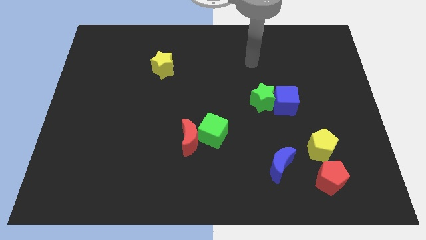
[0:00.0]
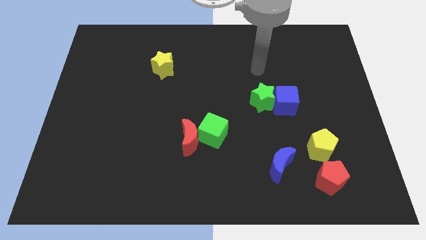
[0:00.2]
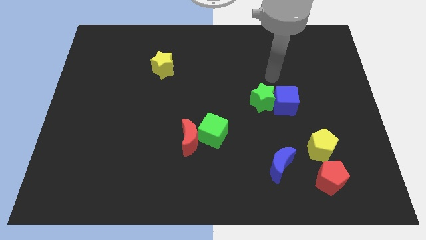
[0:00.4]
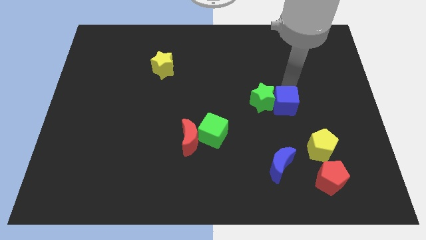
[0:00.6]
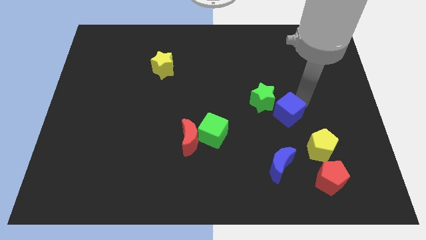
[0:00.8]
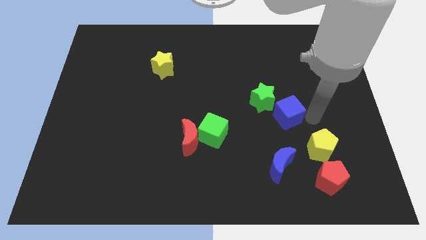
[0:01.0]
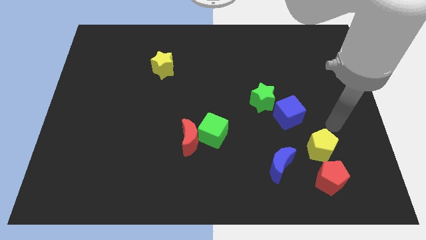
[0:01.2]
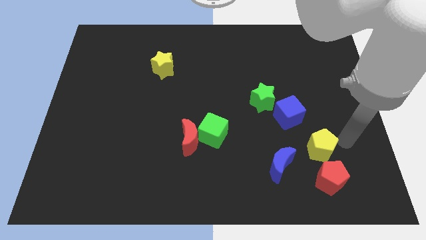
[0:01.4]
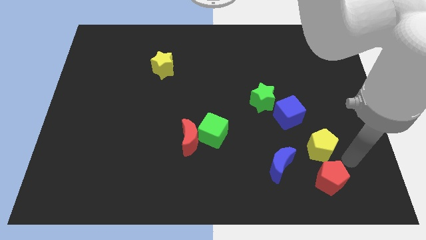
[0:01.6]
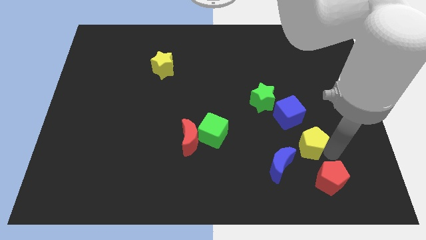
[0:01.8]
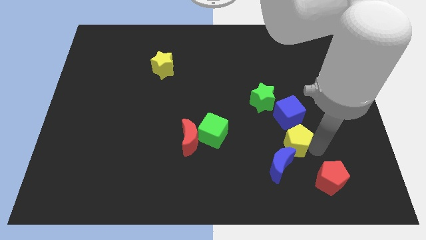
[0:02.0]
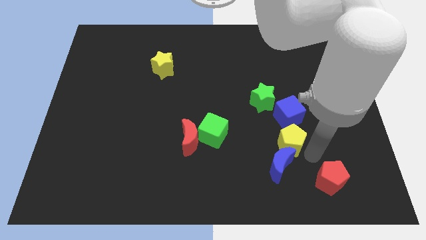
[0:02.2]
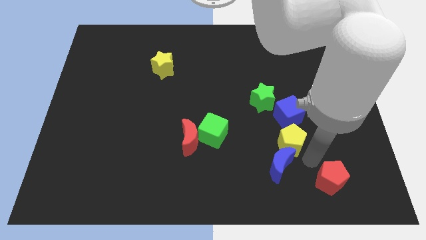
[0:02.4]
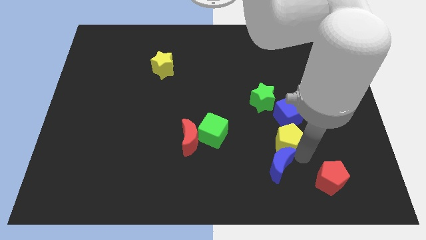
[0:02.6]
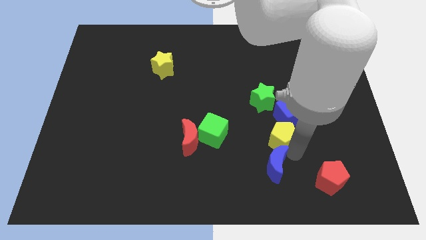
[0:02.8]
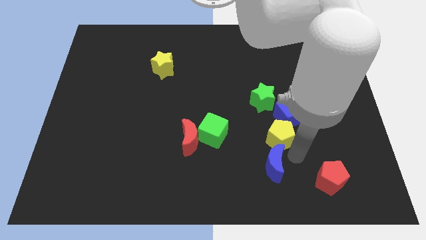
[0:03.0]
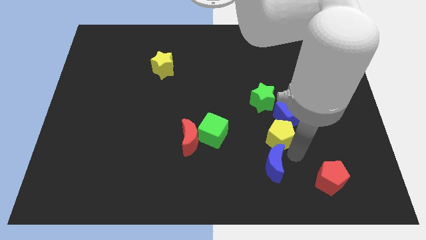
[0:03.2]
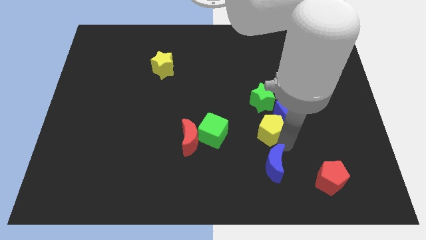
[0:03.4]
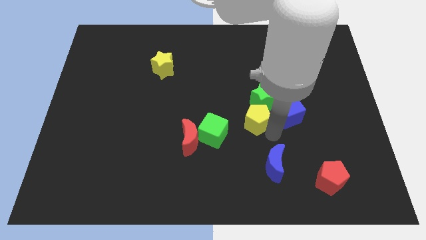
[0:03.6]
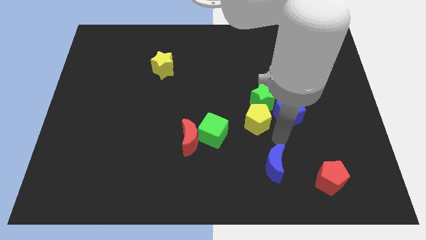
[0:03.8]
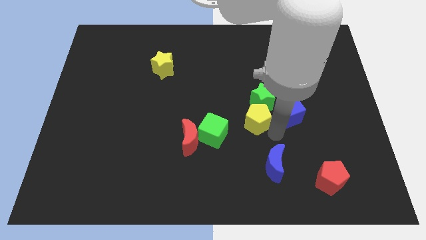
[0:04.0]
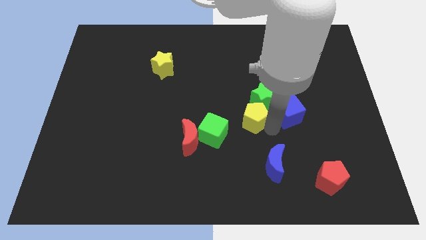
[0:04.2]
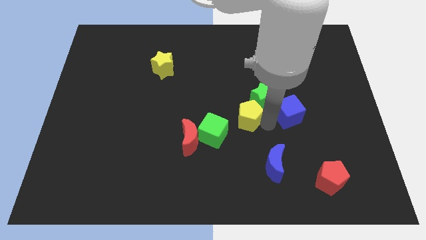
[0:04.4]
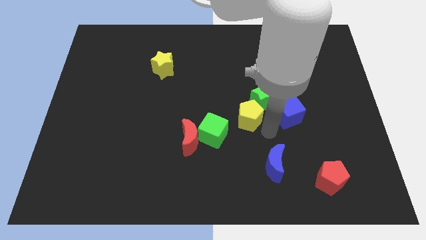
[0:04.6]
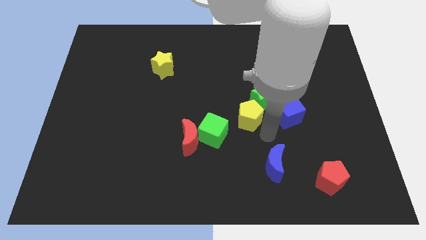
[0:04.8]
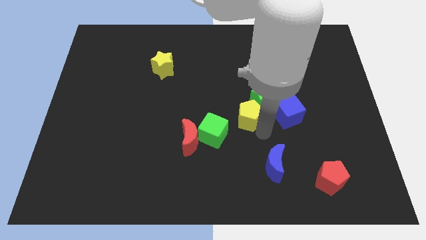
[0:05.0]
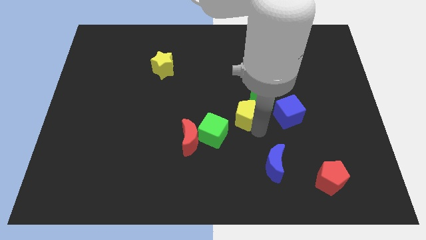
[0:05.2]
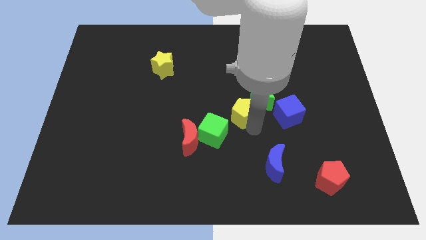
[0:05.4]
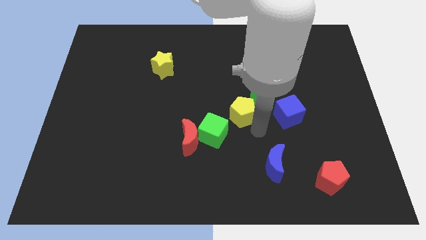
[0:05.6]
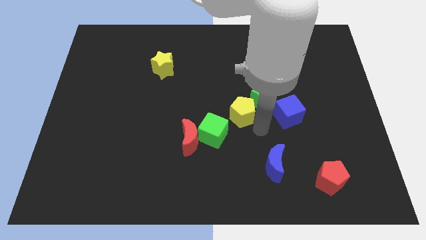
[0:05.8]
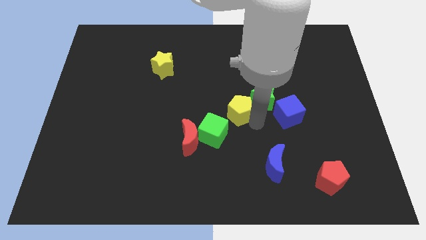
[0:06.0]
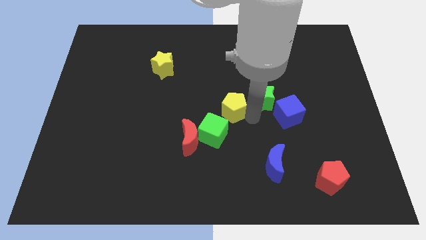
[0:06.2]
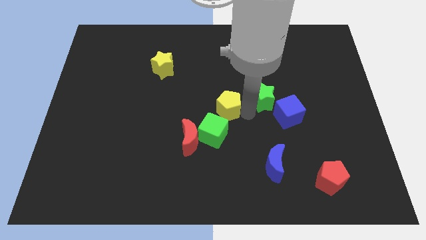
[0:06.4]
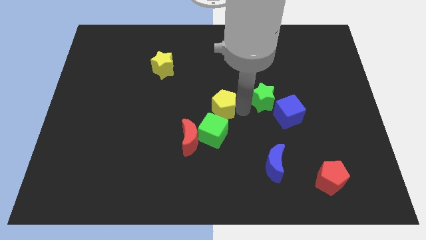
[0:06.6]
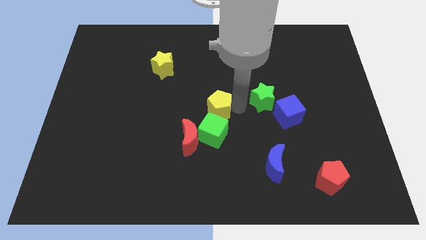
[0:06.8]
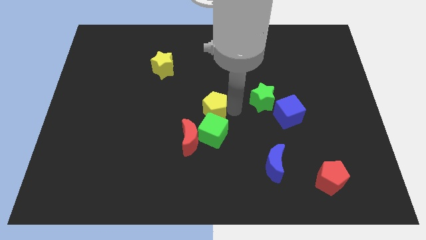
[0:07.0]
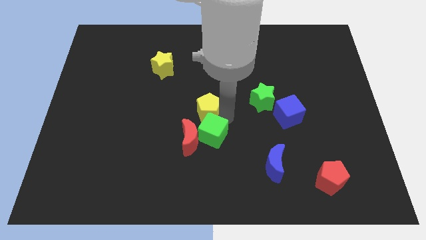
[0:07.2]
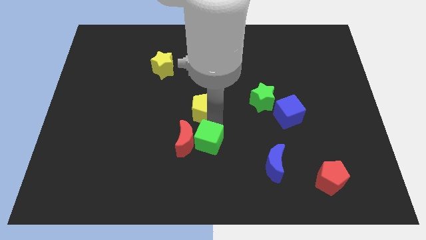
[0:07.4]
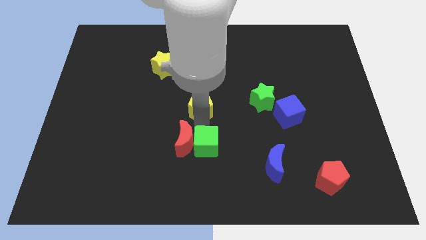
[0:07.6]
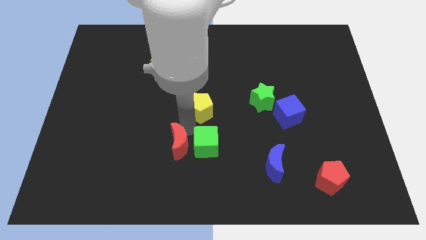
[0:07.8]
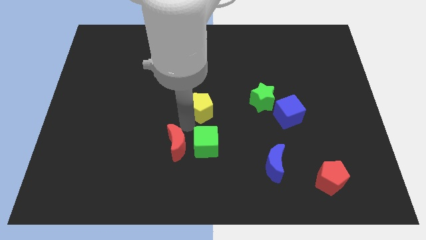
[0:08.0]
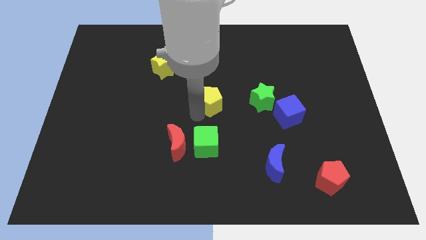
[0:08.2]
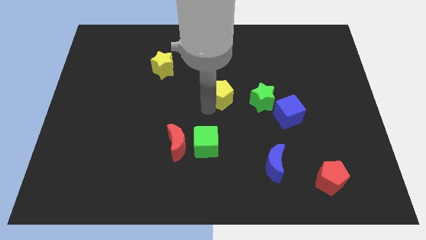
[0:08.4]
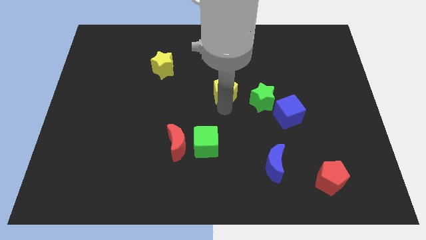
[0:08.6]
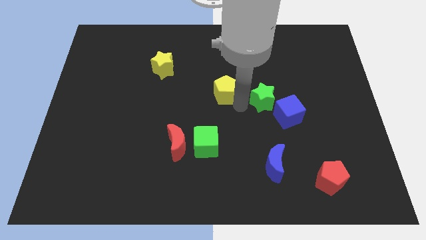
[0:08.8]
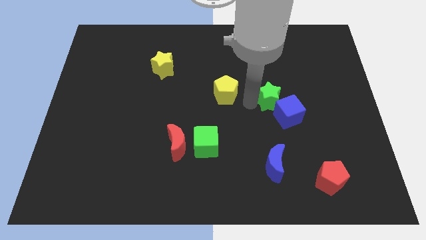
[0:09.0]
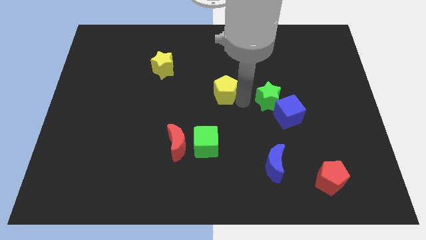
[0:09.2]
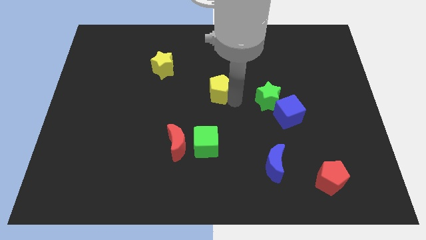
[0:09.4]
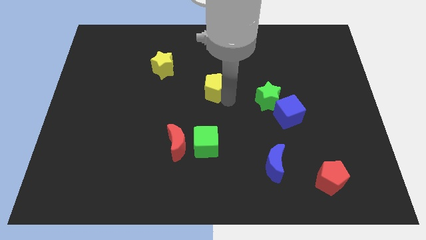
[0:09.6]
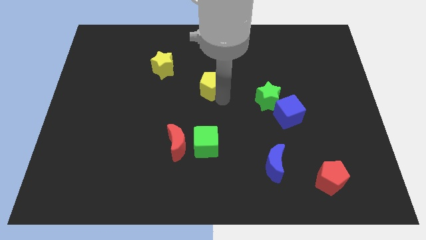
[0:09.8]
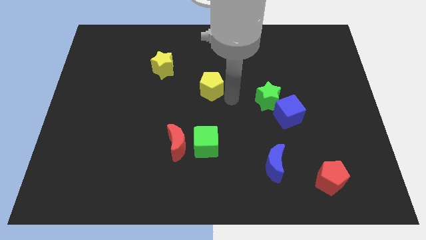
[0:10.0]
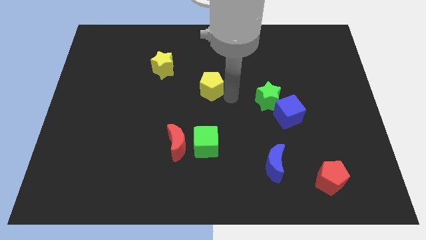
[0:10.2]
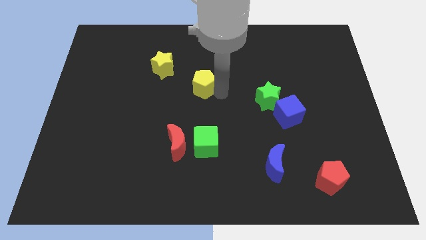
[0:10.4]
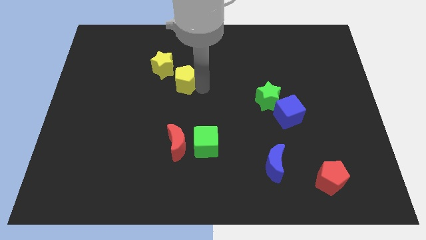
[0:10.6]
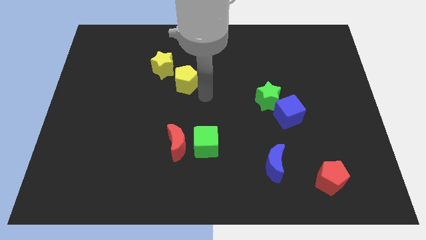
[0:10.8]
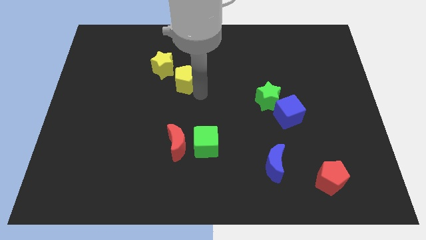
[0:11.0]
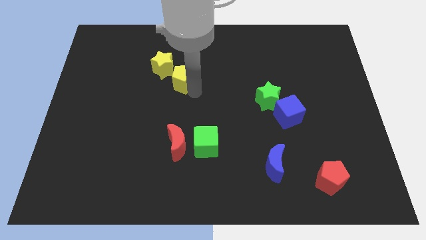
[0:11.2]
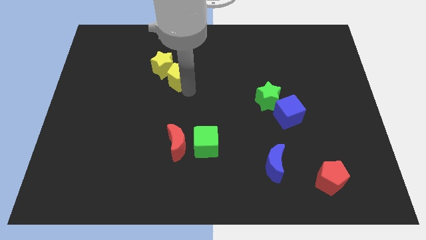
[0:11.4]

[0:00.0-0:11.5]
move the yellow pentagon close to the yellow star
